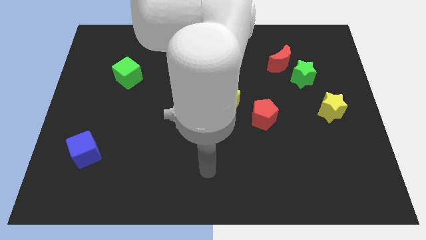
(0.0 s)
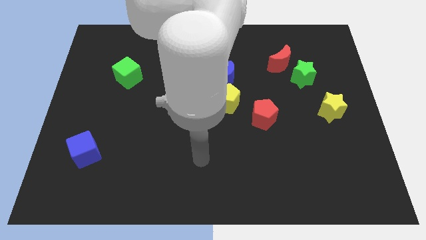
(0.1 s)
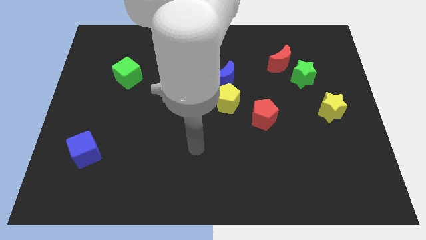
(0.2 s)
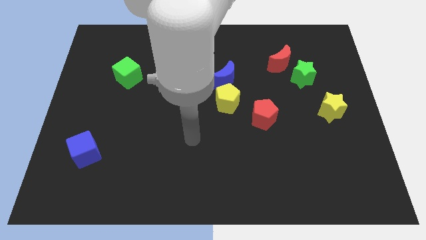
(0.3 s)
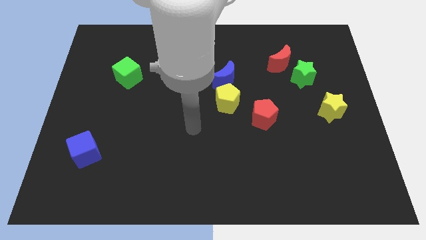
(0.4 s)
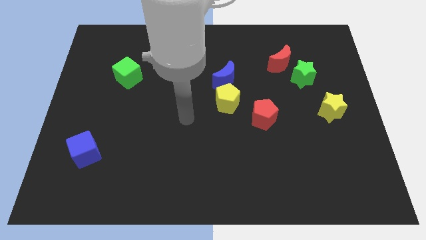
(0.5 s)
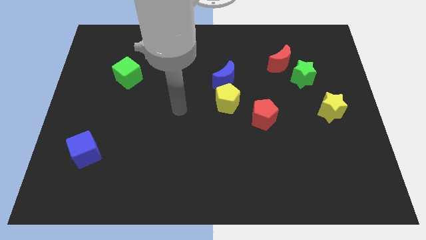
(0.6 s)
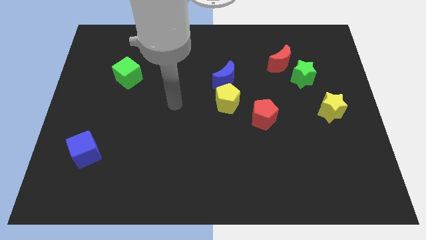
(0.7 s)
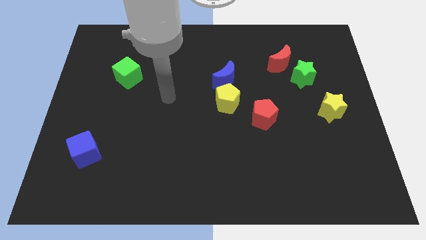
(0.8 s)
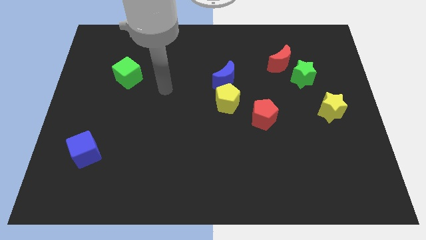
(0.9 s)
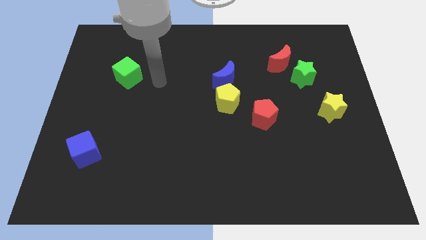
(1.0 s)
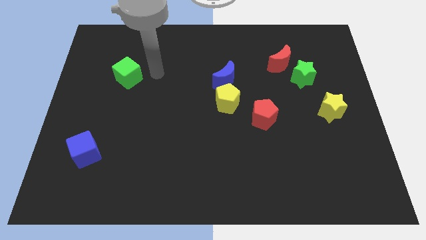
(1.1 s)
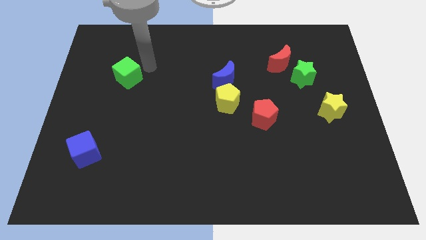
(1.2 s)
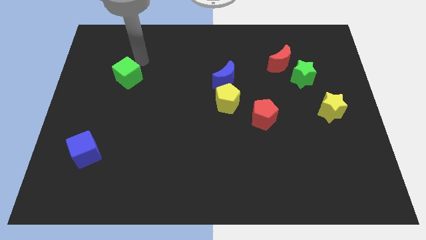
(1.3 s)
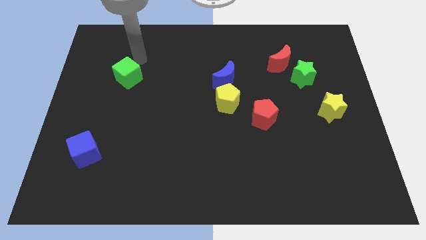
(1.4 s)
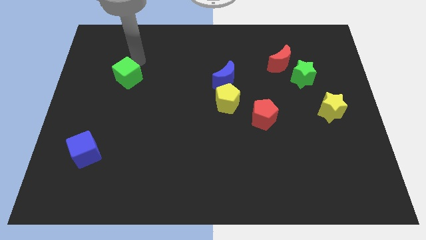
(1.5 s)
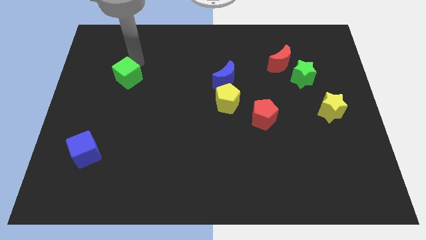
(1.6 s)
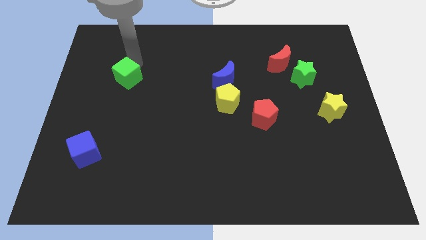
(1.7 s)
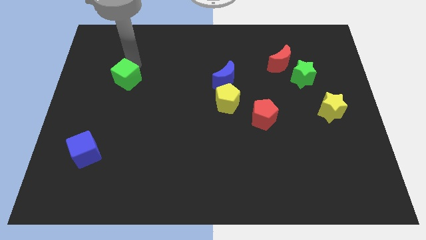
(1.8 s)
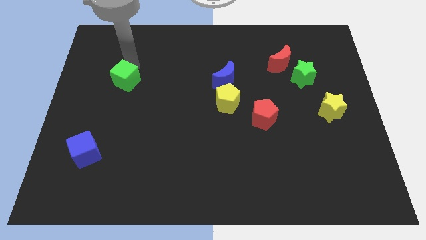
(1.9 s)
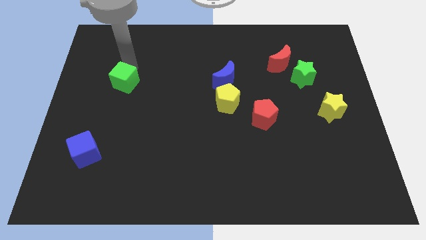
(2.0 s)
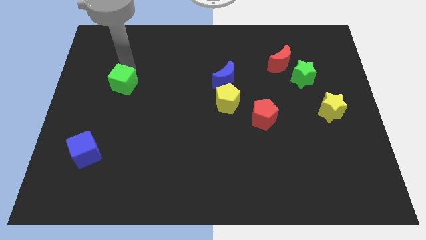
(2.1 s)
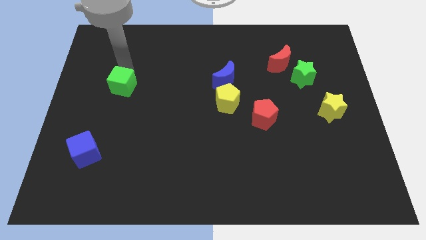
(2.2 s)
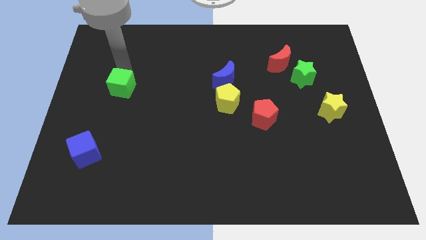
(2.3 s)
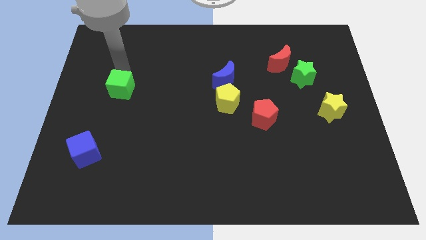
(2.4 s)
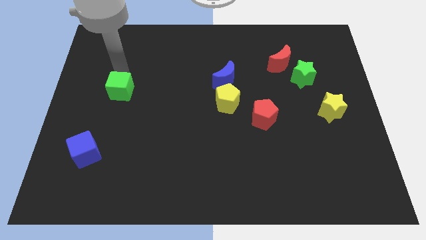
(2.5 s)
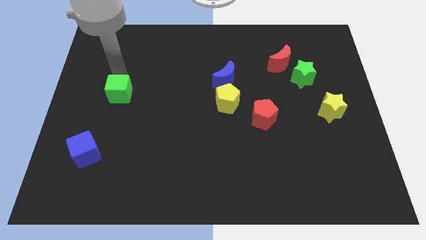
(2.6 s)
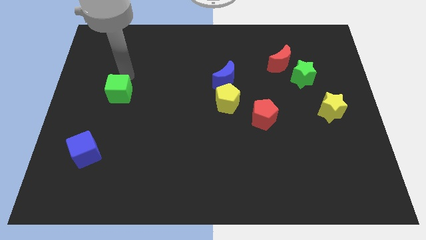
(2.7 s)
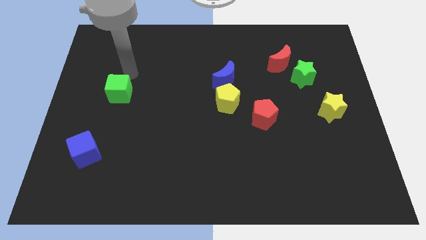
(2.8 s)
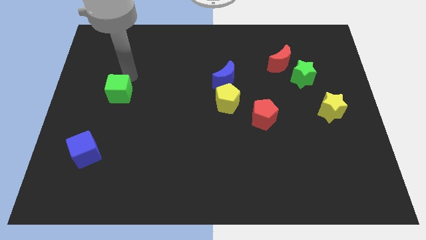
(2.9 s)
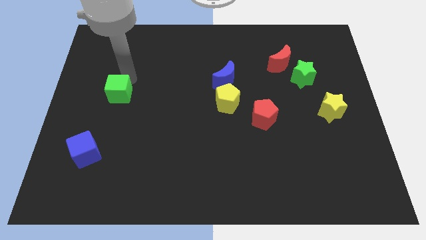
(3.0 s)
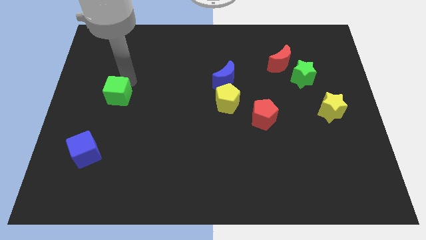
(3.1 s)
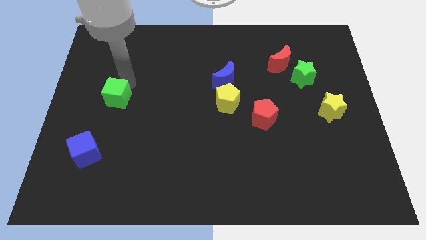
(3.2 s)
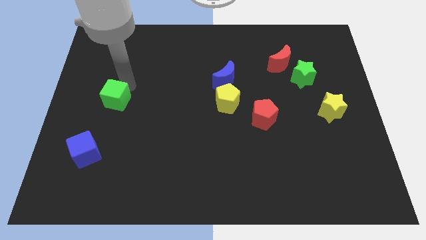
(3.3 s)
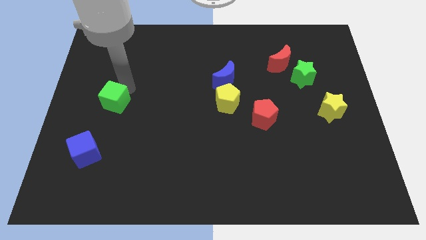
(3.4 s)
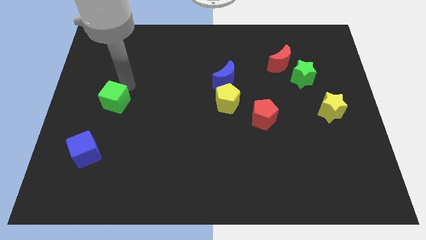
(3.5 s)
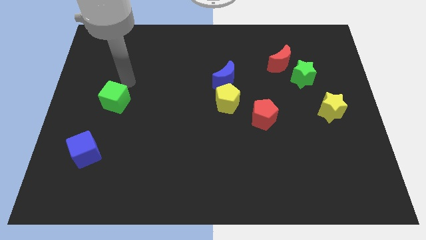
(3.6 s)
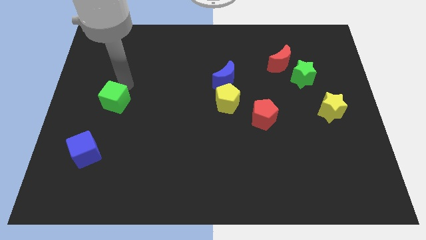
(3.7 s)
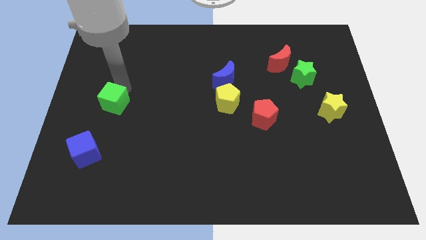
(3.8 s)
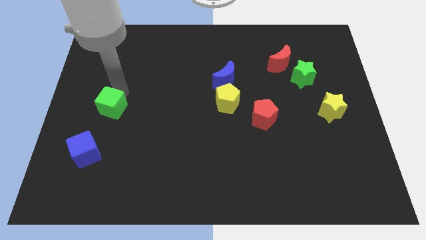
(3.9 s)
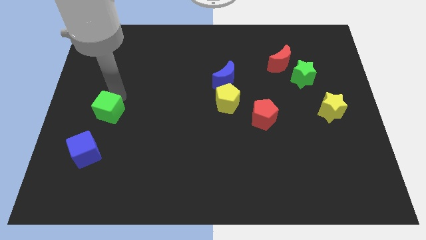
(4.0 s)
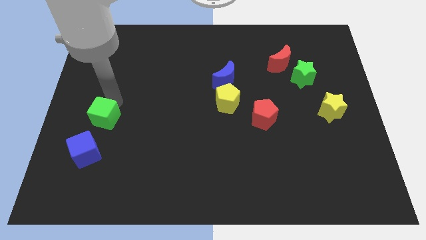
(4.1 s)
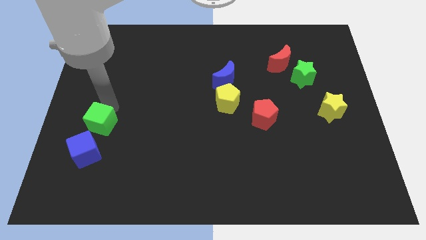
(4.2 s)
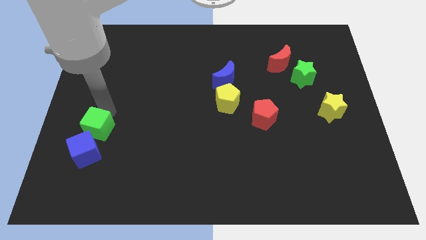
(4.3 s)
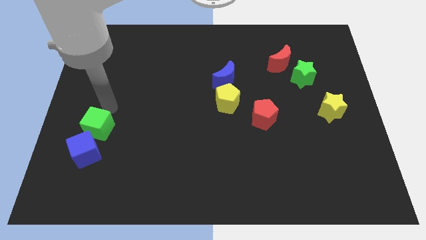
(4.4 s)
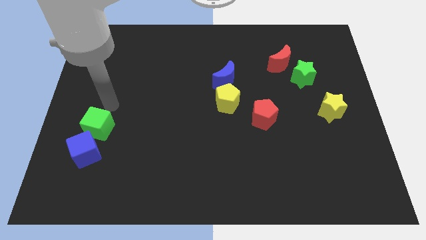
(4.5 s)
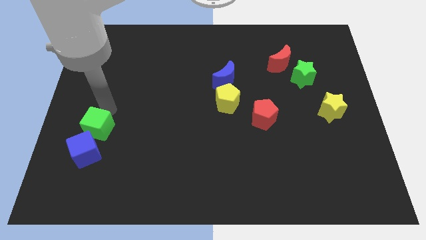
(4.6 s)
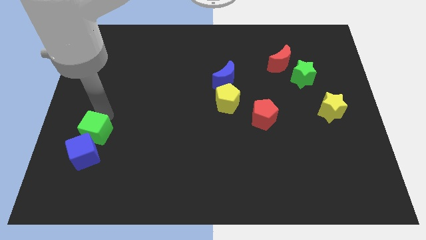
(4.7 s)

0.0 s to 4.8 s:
slide the green cube close to the blue cube

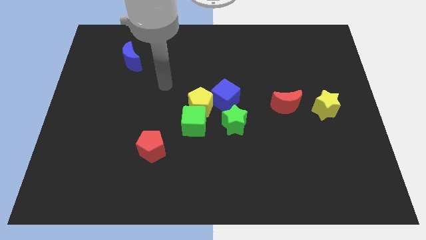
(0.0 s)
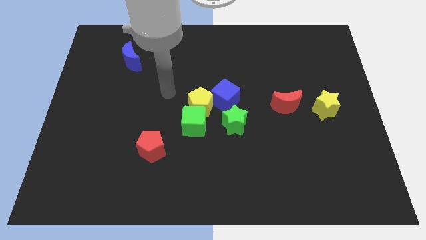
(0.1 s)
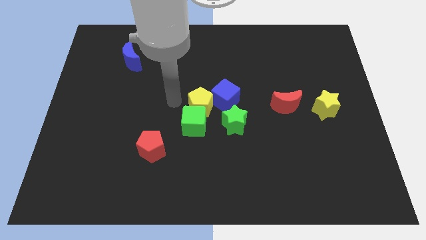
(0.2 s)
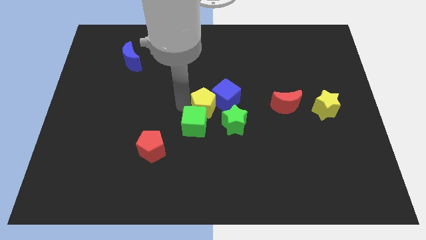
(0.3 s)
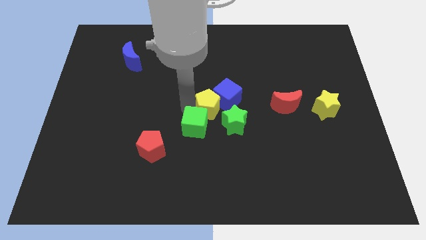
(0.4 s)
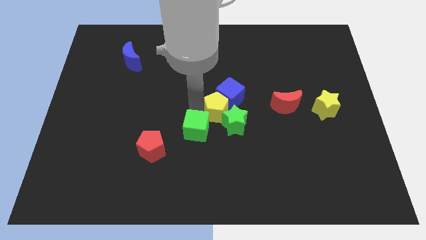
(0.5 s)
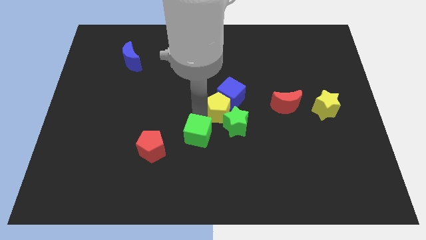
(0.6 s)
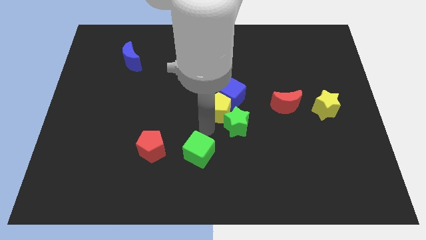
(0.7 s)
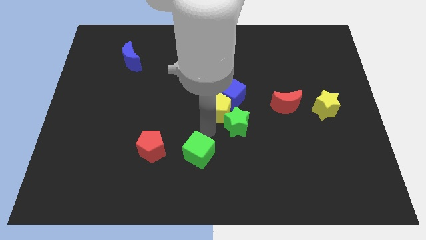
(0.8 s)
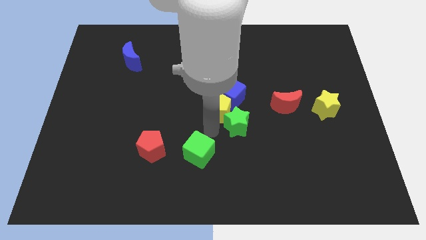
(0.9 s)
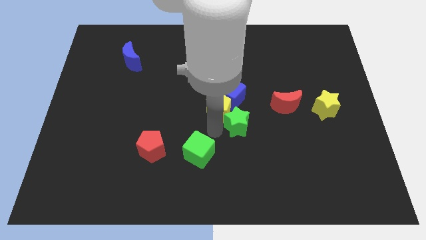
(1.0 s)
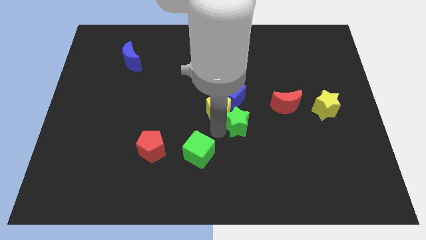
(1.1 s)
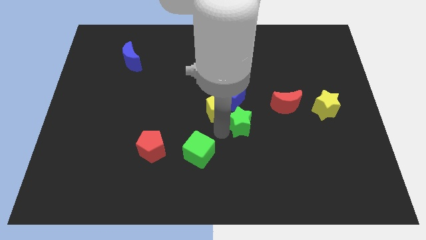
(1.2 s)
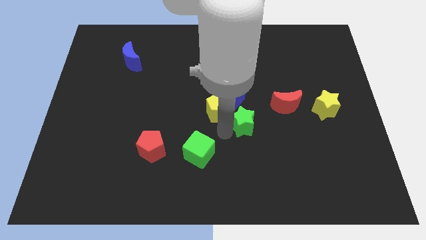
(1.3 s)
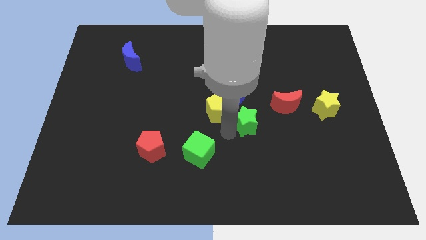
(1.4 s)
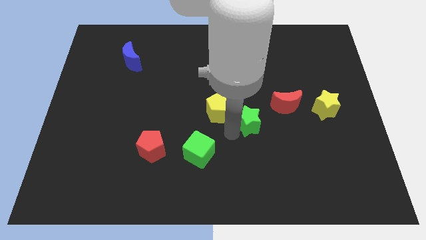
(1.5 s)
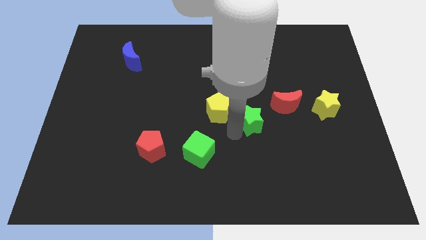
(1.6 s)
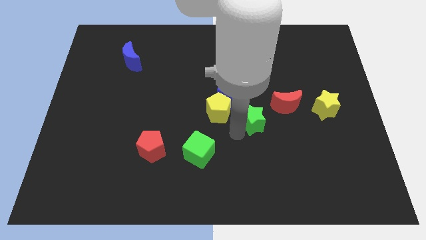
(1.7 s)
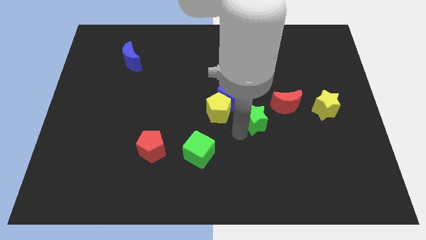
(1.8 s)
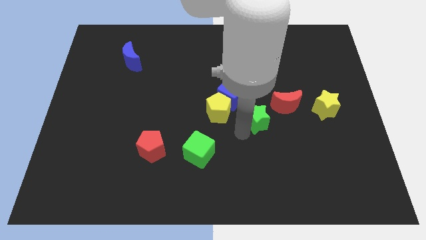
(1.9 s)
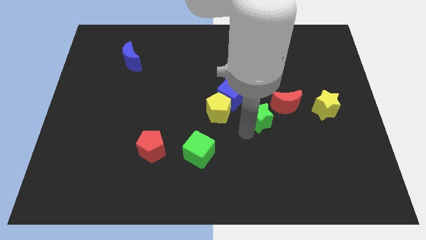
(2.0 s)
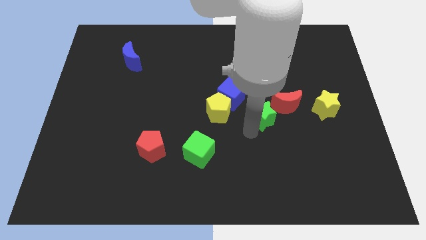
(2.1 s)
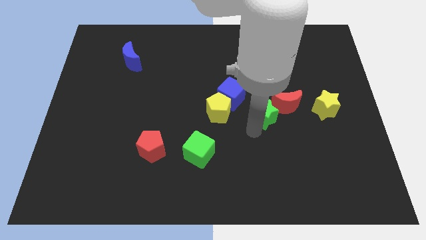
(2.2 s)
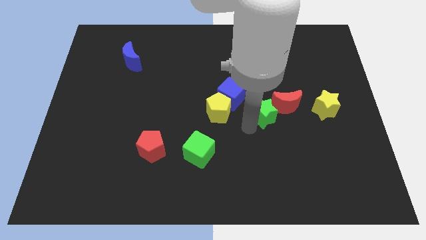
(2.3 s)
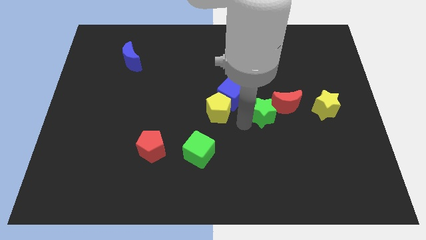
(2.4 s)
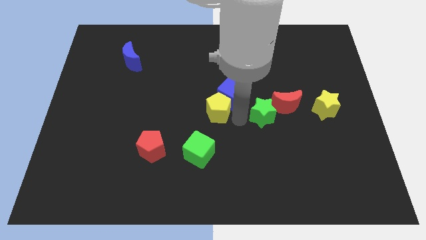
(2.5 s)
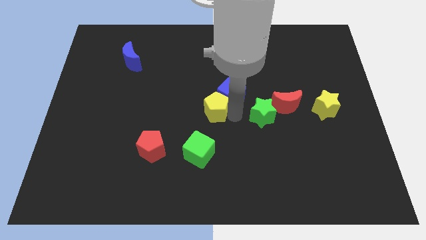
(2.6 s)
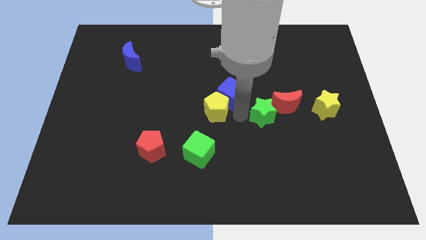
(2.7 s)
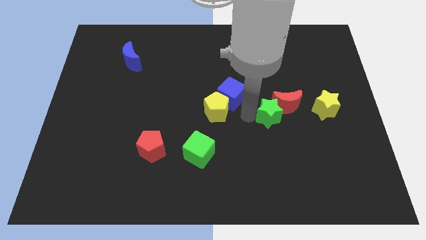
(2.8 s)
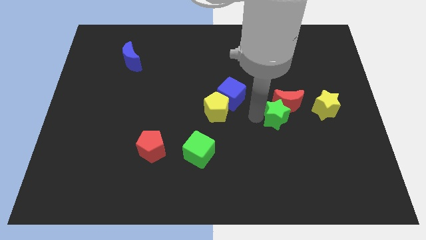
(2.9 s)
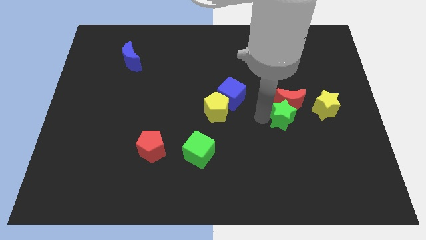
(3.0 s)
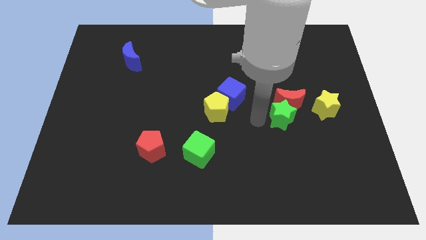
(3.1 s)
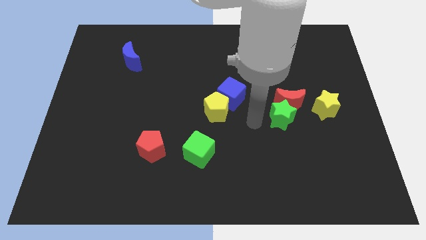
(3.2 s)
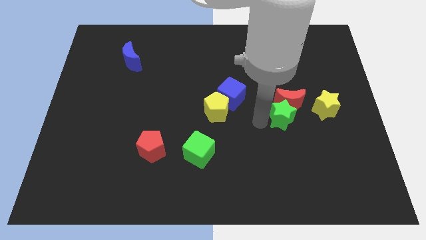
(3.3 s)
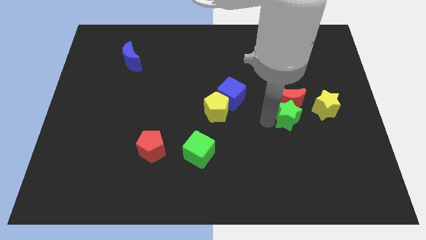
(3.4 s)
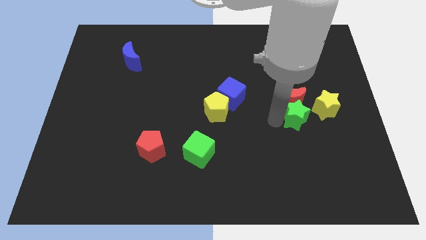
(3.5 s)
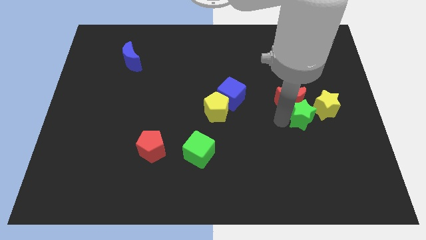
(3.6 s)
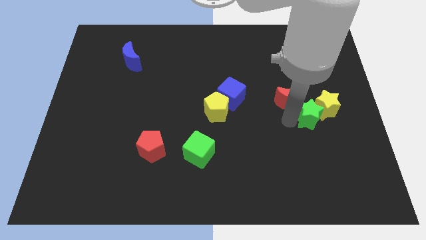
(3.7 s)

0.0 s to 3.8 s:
push the green star towards the yellow star
